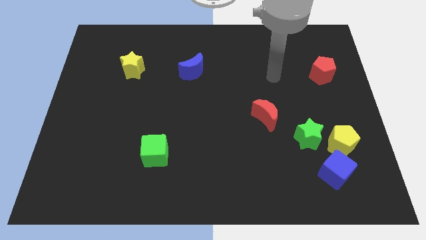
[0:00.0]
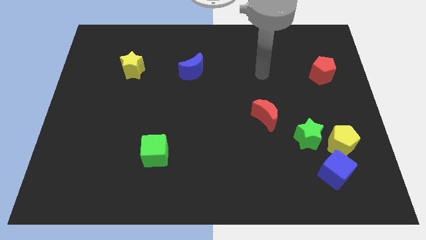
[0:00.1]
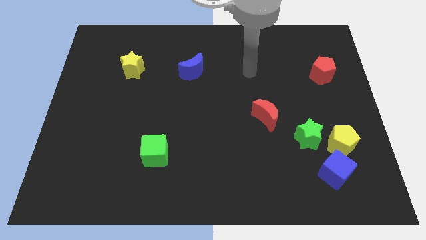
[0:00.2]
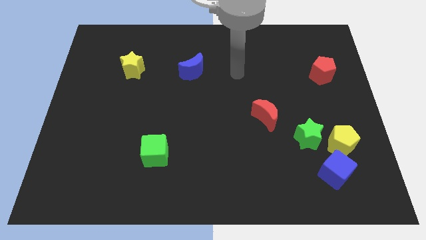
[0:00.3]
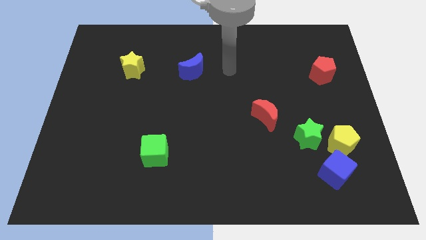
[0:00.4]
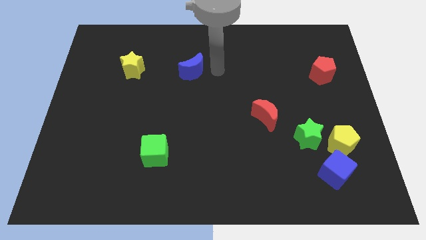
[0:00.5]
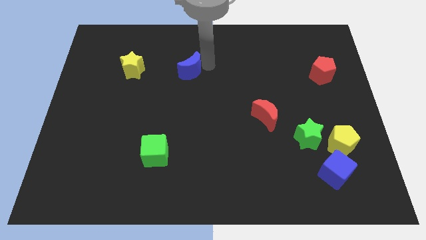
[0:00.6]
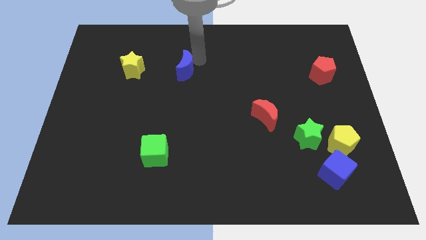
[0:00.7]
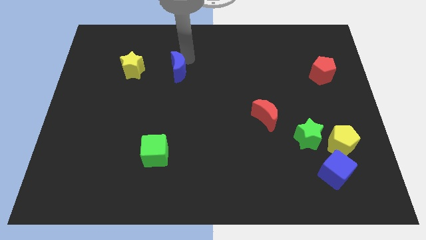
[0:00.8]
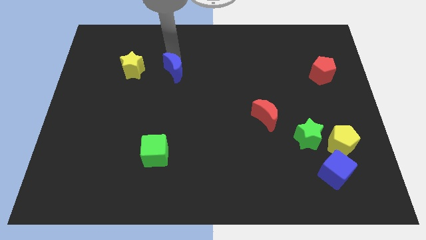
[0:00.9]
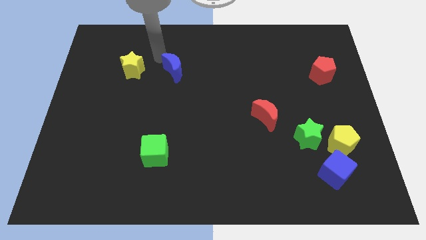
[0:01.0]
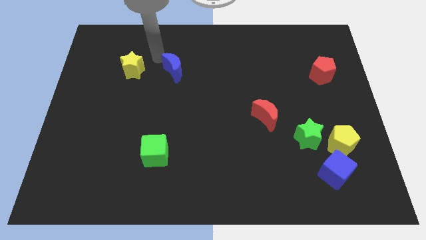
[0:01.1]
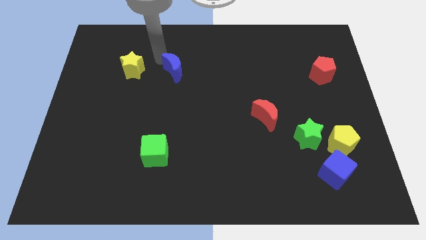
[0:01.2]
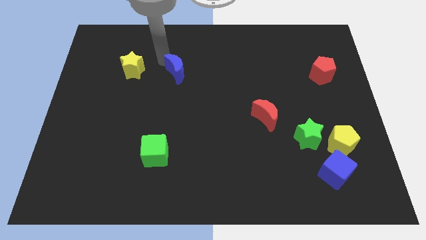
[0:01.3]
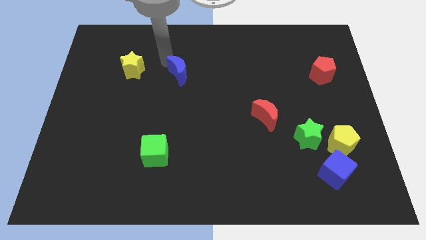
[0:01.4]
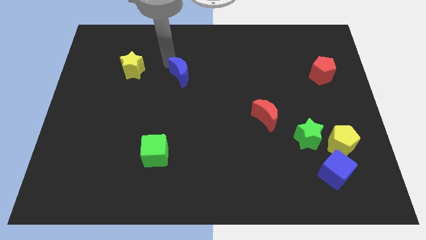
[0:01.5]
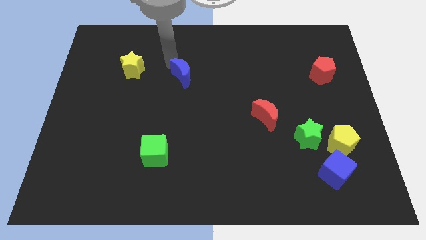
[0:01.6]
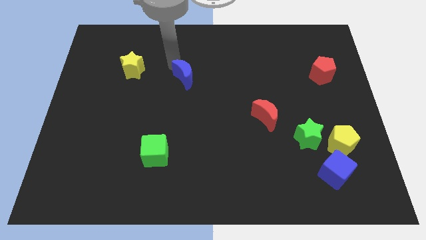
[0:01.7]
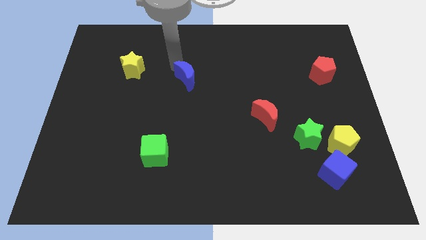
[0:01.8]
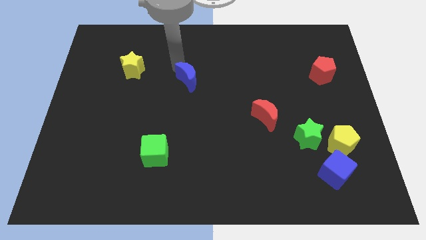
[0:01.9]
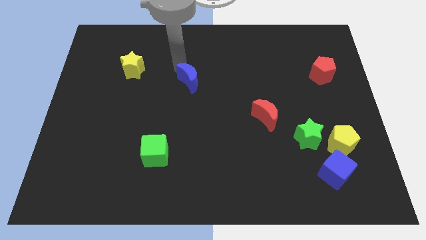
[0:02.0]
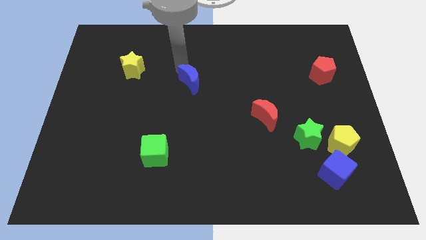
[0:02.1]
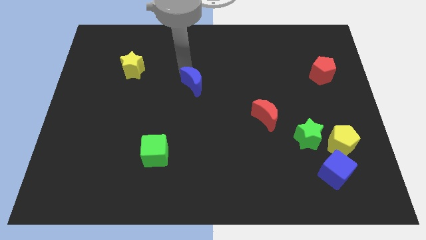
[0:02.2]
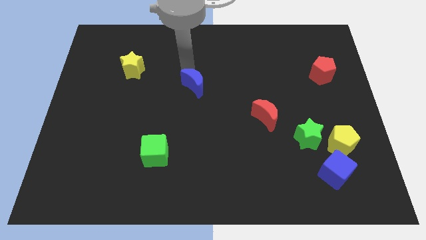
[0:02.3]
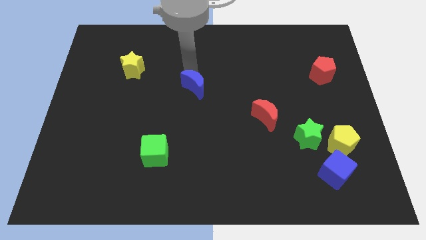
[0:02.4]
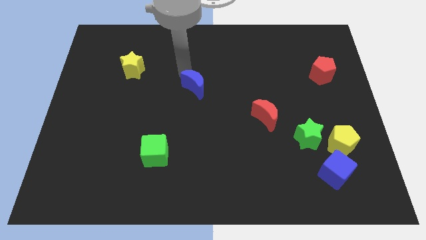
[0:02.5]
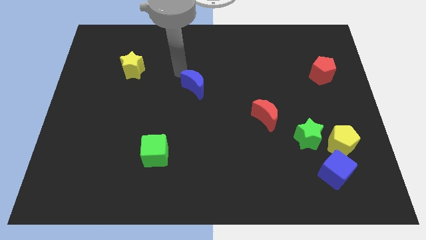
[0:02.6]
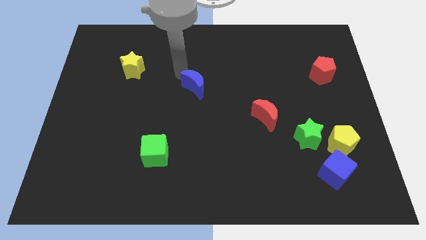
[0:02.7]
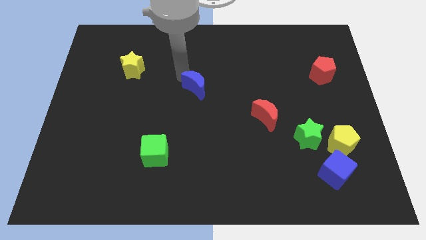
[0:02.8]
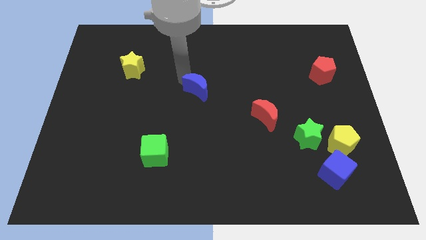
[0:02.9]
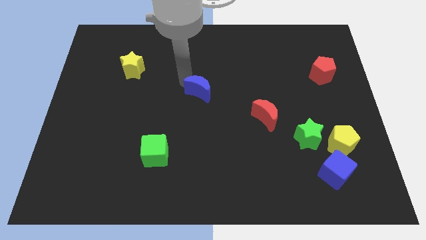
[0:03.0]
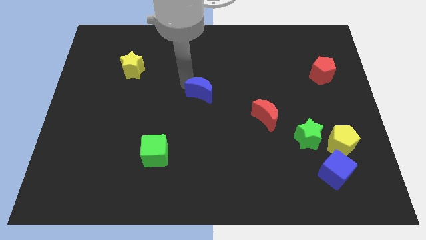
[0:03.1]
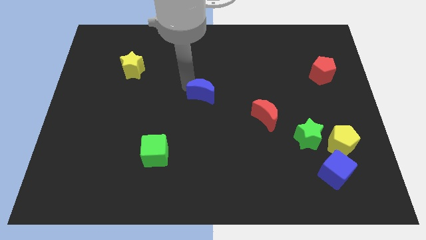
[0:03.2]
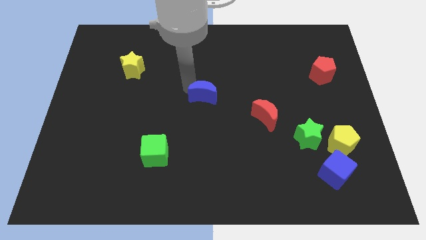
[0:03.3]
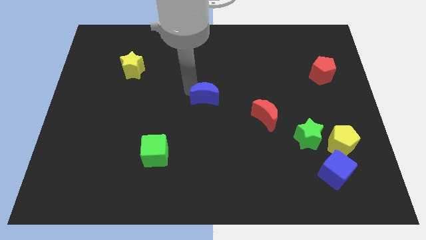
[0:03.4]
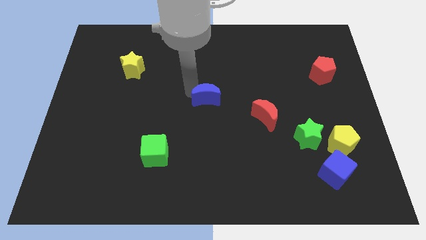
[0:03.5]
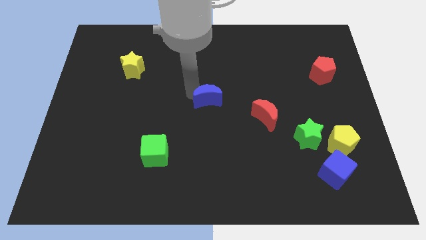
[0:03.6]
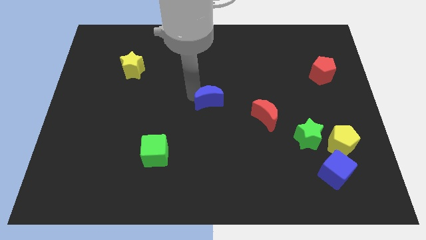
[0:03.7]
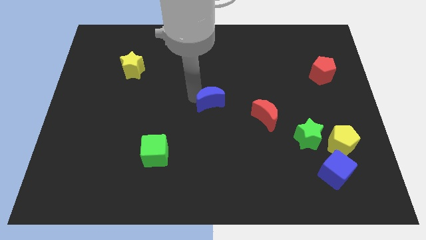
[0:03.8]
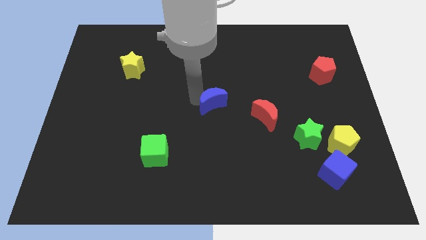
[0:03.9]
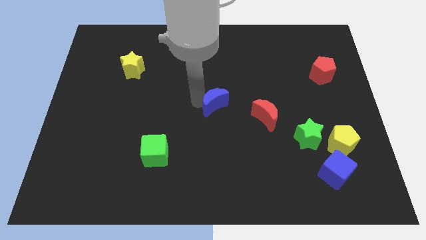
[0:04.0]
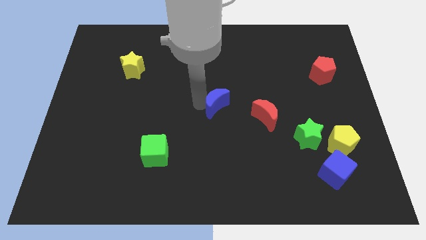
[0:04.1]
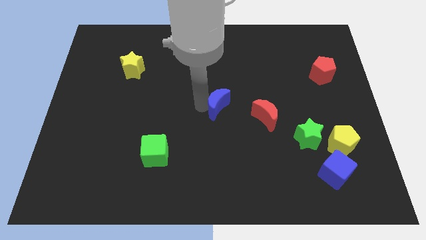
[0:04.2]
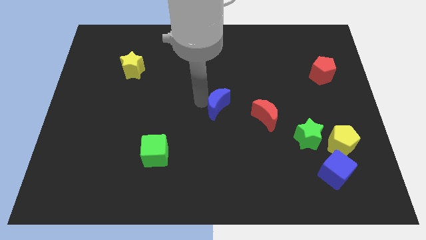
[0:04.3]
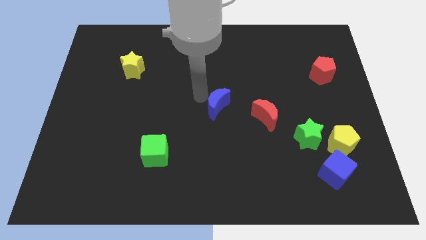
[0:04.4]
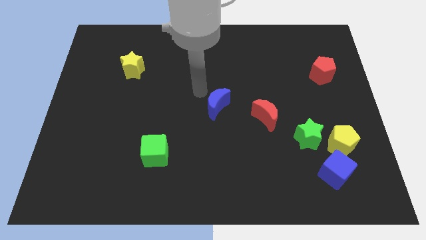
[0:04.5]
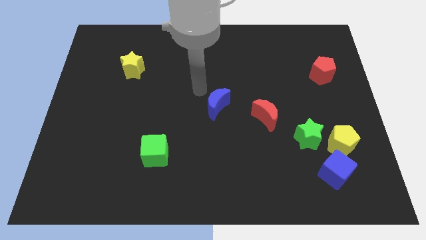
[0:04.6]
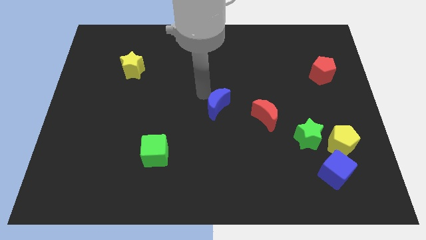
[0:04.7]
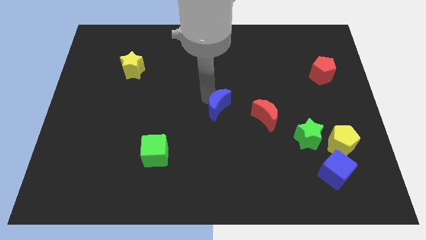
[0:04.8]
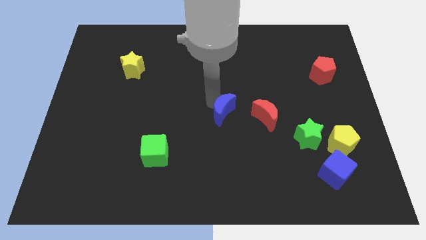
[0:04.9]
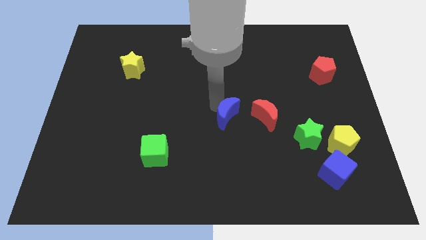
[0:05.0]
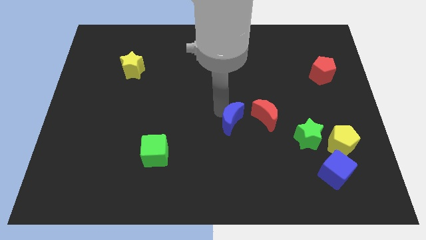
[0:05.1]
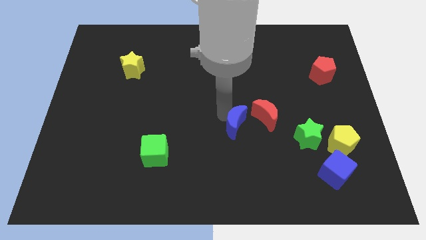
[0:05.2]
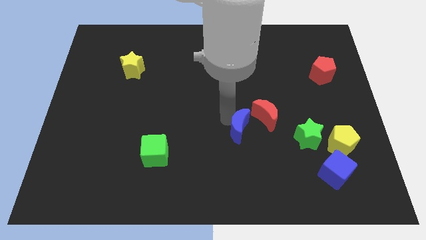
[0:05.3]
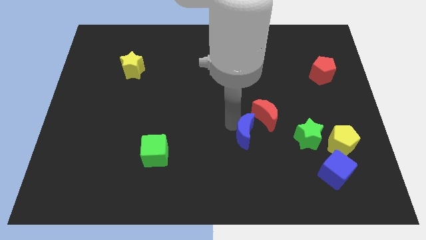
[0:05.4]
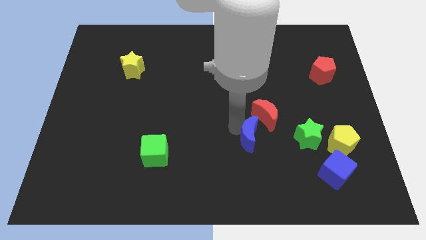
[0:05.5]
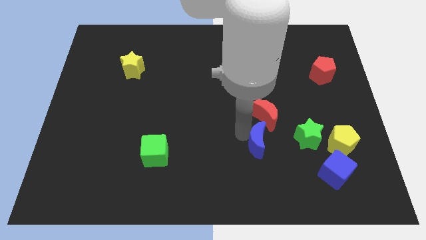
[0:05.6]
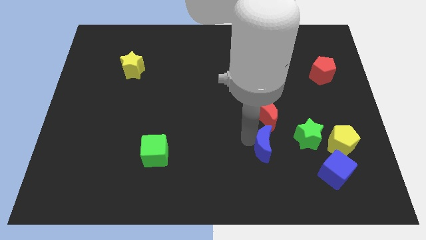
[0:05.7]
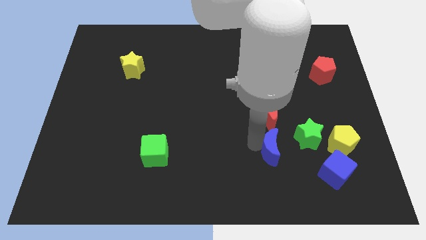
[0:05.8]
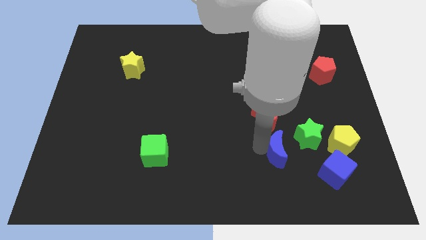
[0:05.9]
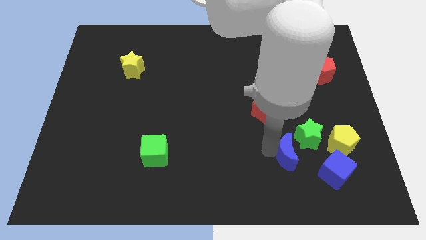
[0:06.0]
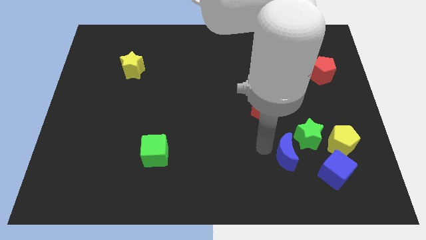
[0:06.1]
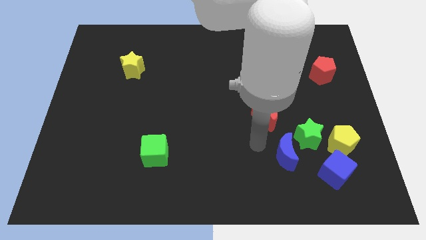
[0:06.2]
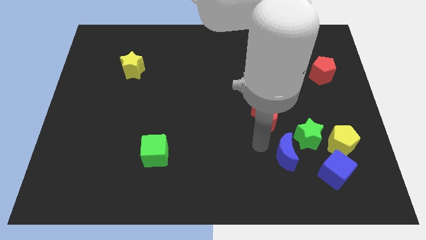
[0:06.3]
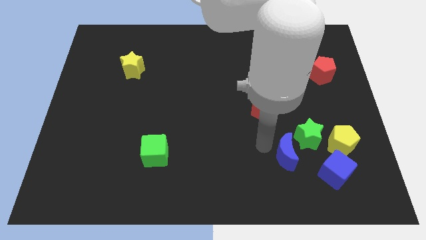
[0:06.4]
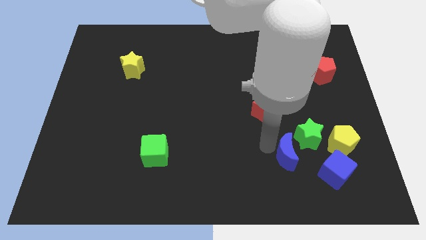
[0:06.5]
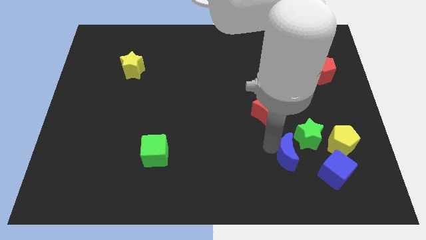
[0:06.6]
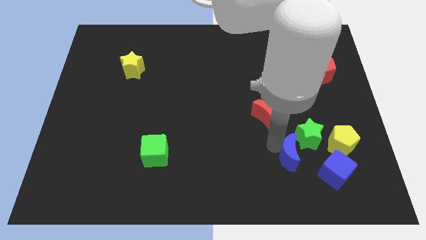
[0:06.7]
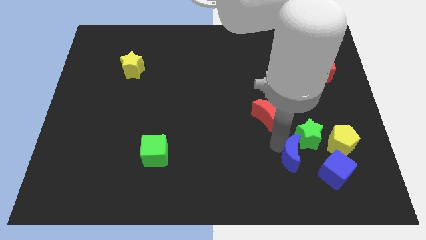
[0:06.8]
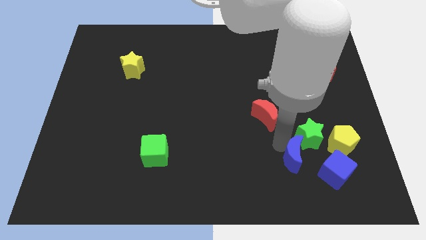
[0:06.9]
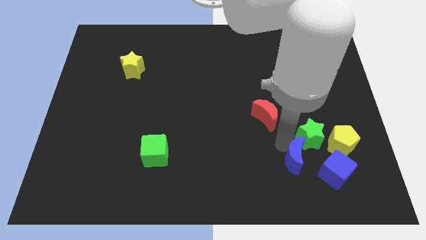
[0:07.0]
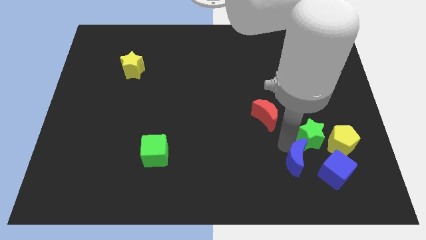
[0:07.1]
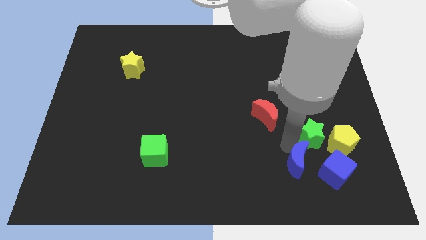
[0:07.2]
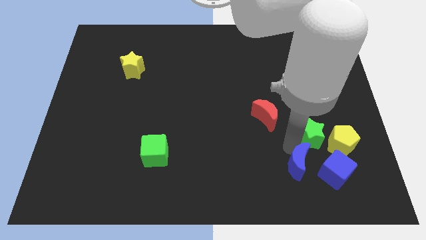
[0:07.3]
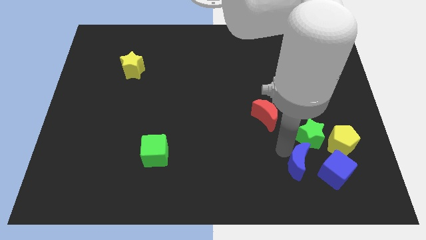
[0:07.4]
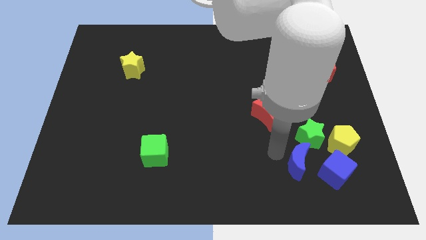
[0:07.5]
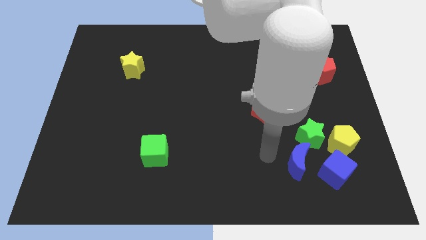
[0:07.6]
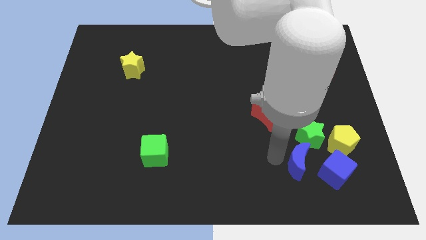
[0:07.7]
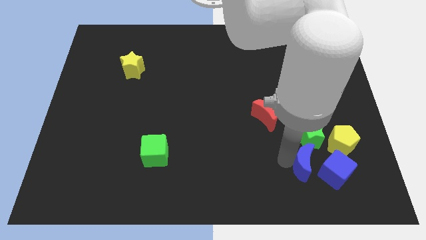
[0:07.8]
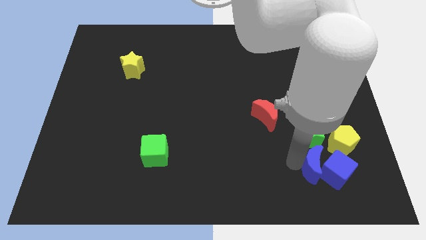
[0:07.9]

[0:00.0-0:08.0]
push the blue moon to the blue cube
